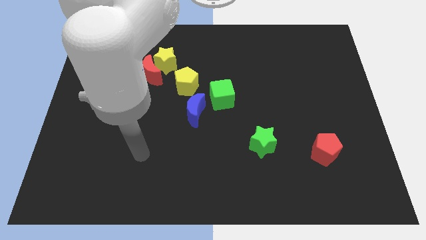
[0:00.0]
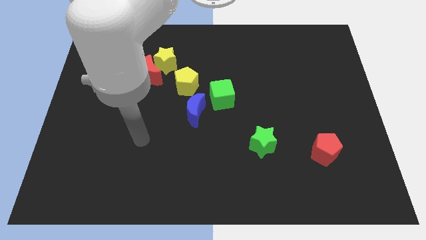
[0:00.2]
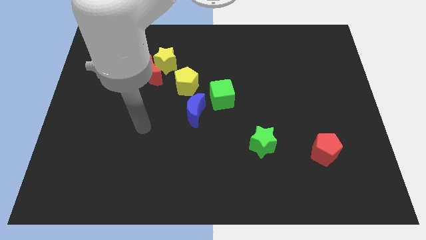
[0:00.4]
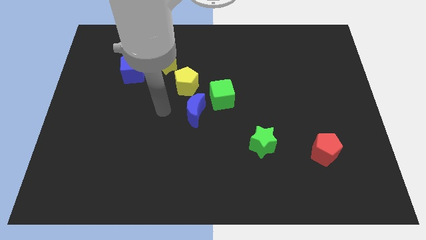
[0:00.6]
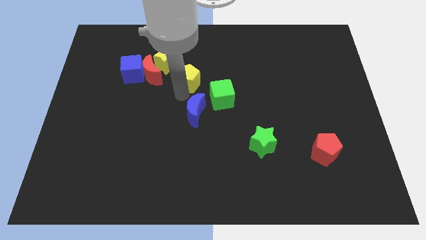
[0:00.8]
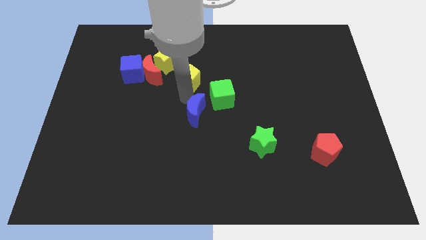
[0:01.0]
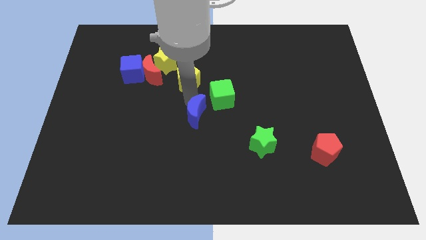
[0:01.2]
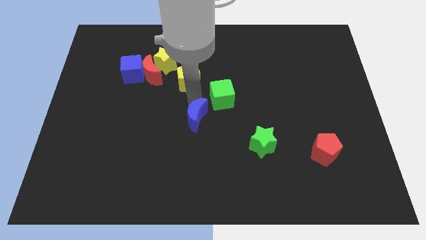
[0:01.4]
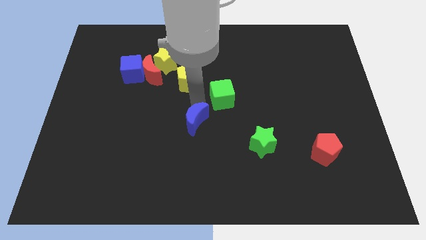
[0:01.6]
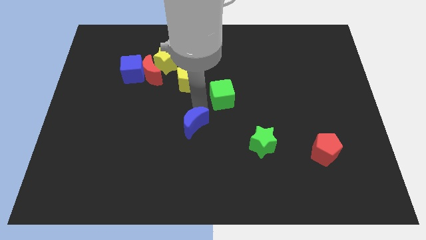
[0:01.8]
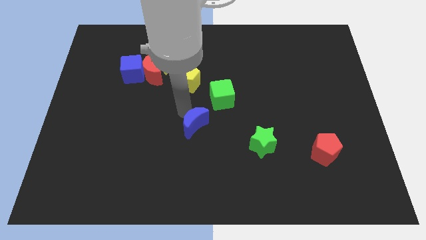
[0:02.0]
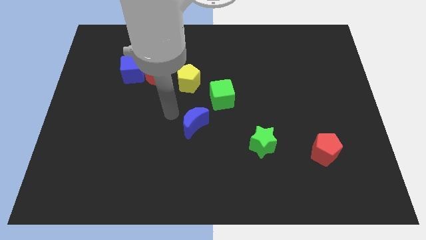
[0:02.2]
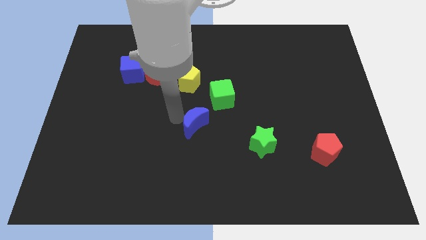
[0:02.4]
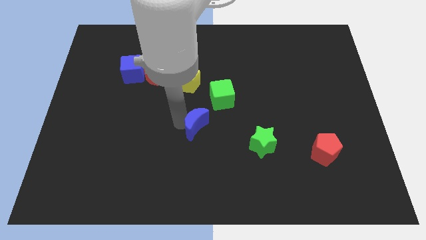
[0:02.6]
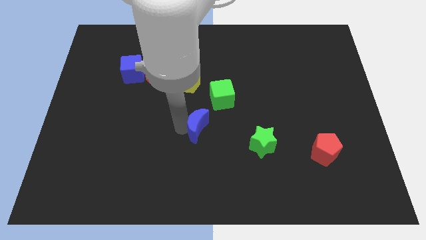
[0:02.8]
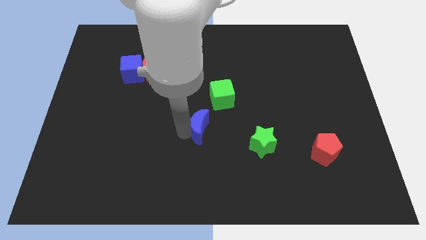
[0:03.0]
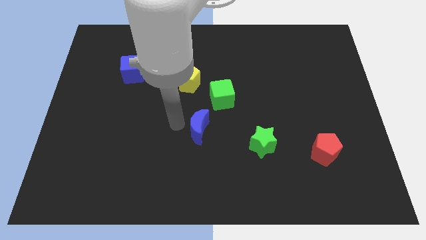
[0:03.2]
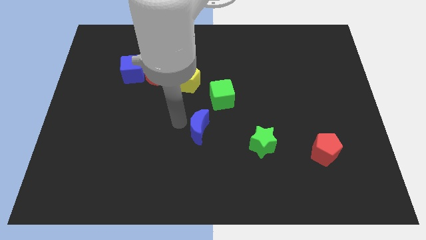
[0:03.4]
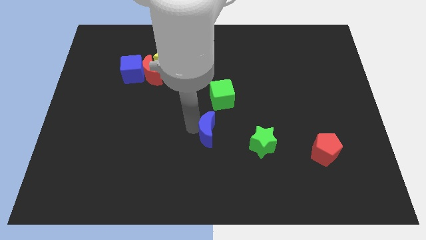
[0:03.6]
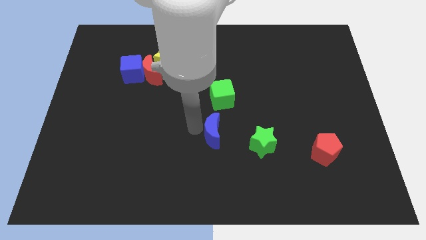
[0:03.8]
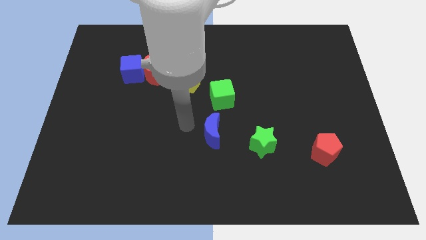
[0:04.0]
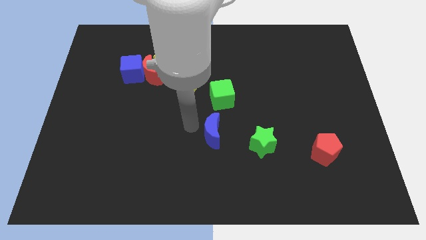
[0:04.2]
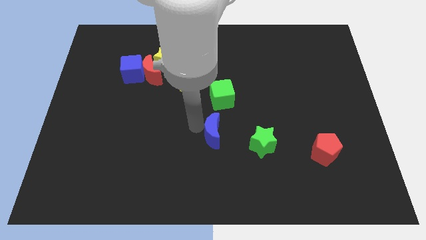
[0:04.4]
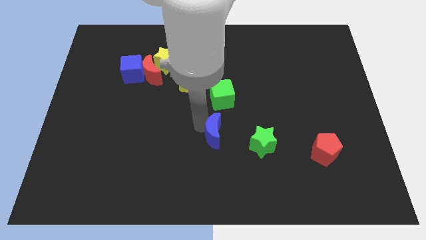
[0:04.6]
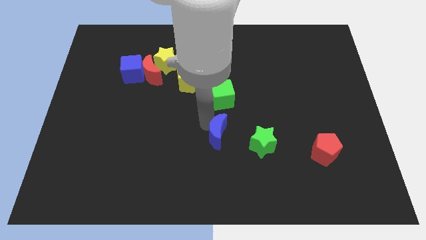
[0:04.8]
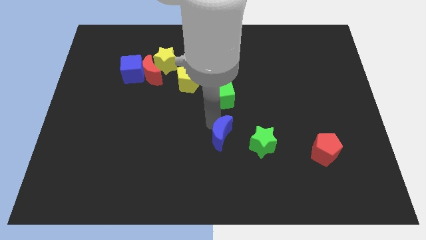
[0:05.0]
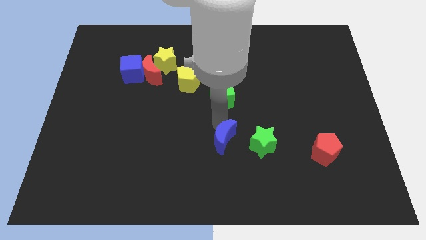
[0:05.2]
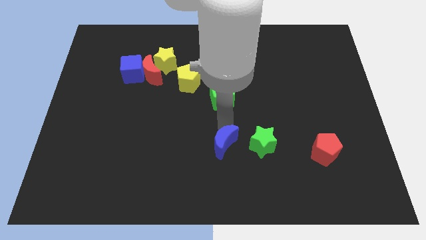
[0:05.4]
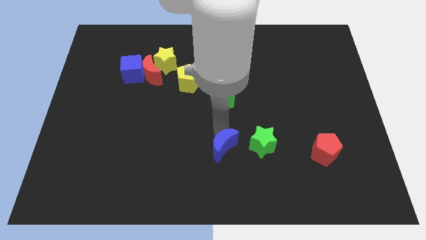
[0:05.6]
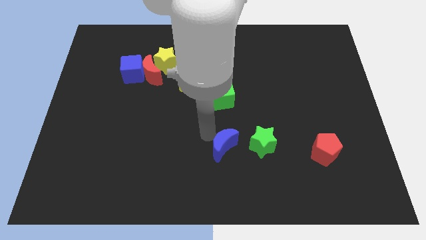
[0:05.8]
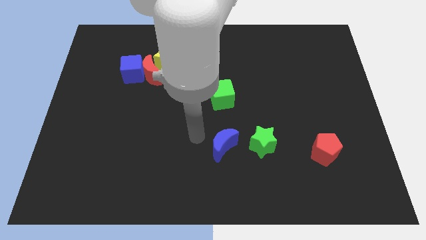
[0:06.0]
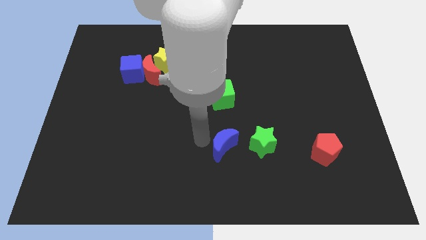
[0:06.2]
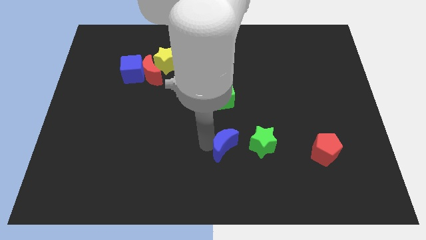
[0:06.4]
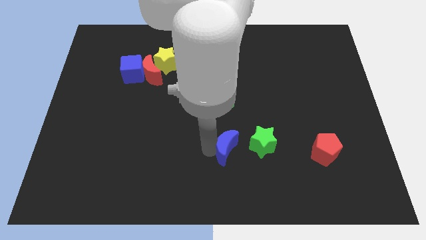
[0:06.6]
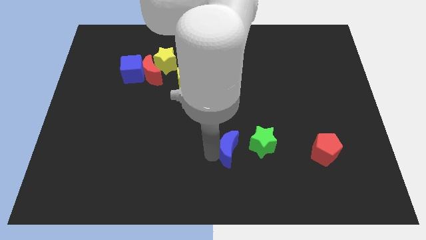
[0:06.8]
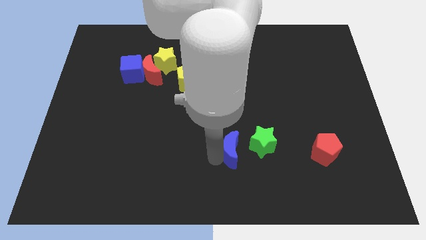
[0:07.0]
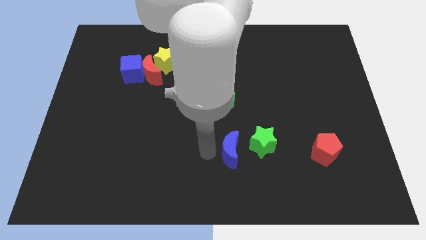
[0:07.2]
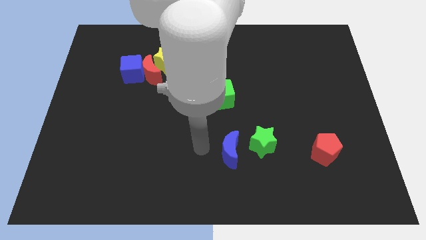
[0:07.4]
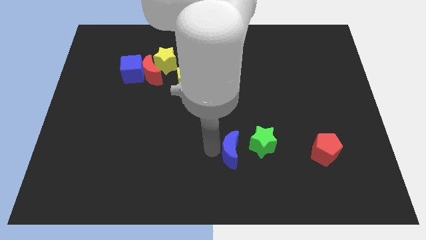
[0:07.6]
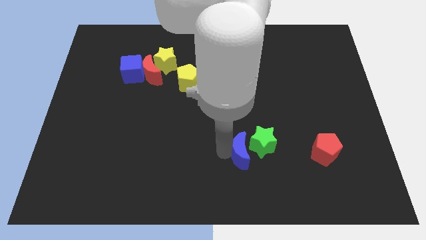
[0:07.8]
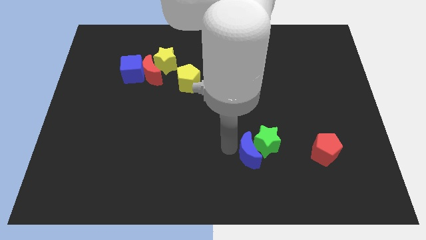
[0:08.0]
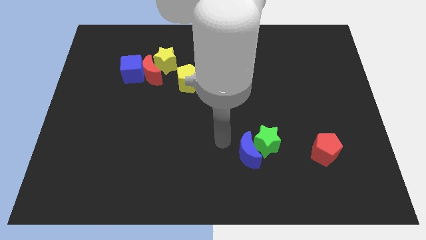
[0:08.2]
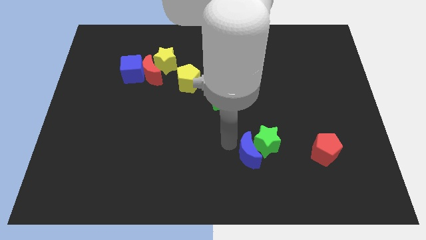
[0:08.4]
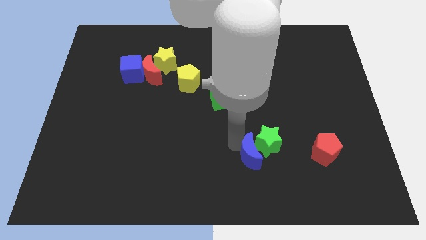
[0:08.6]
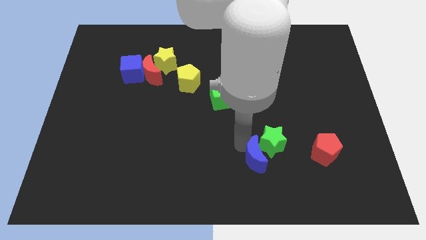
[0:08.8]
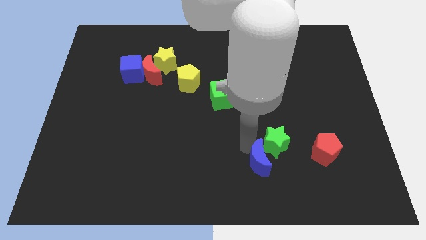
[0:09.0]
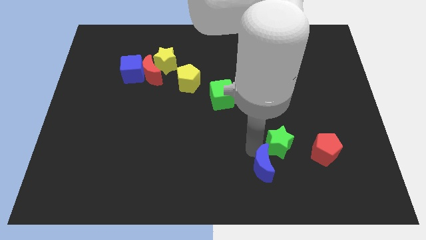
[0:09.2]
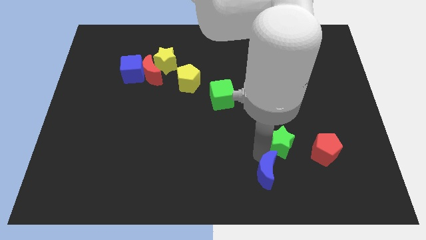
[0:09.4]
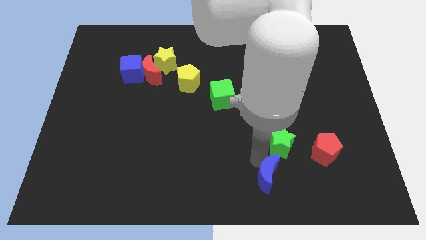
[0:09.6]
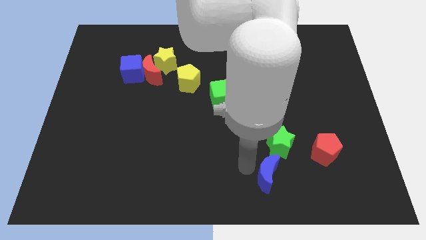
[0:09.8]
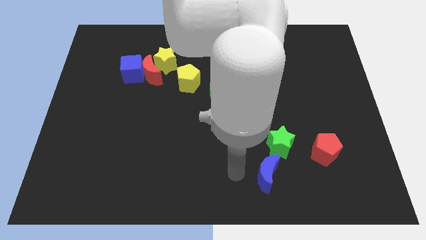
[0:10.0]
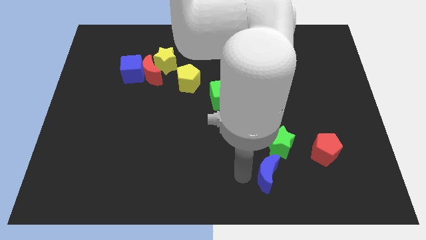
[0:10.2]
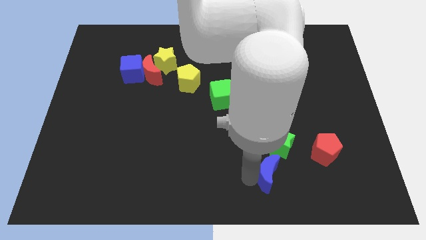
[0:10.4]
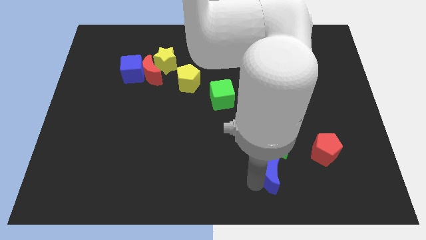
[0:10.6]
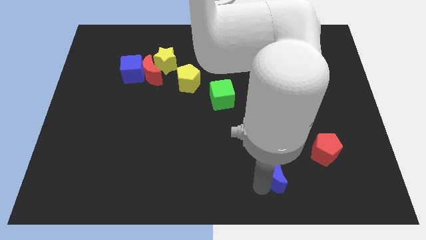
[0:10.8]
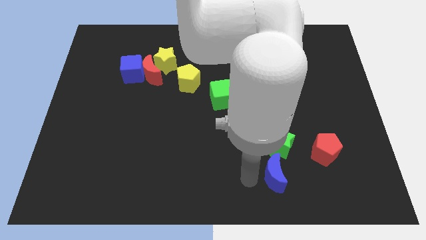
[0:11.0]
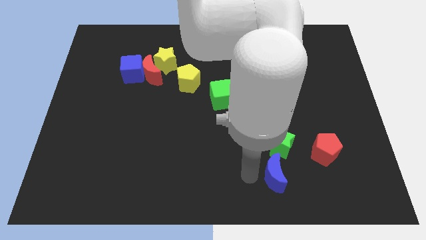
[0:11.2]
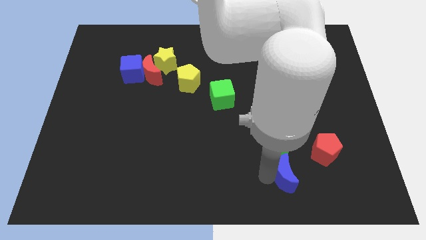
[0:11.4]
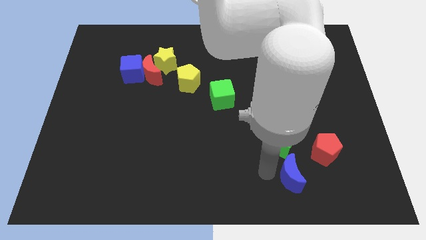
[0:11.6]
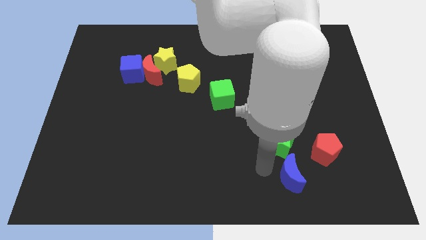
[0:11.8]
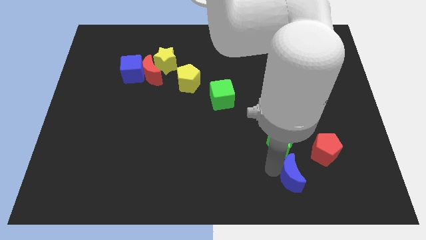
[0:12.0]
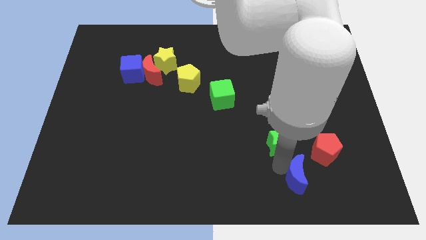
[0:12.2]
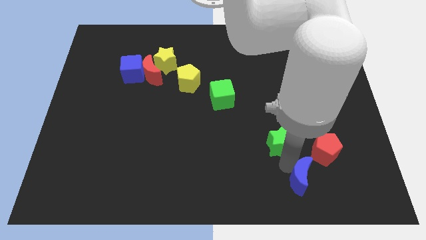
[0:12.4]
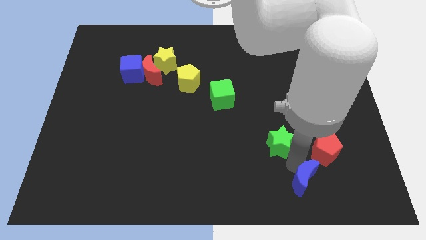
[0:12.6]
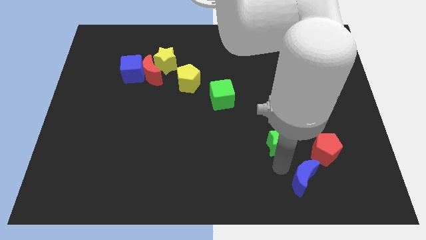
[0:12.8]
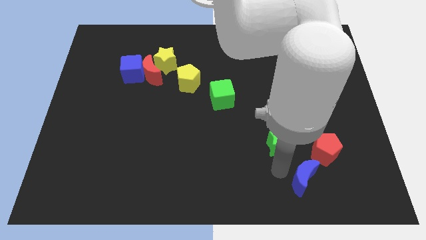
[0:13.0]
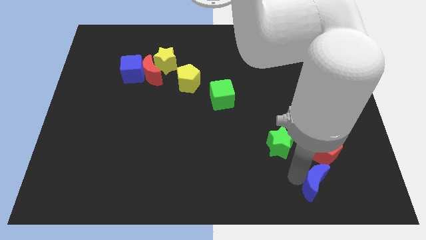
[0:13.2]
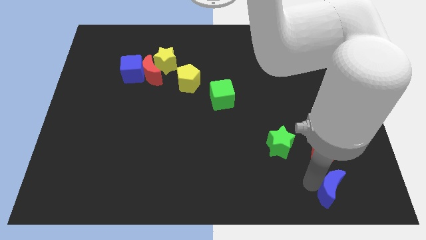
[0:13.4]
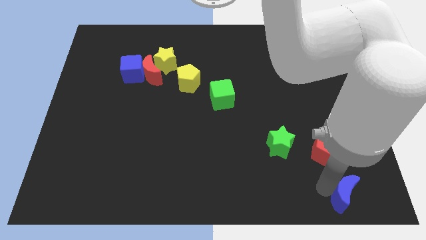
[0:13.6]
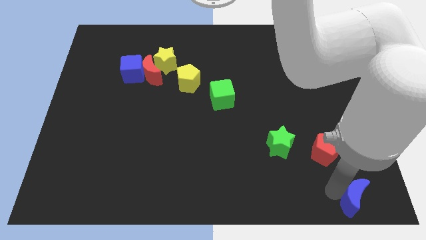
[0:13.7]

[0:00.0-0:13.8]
put the blue moon to the lower right corner
